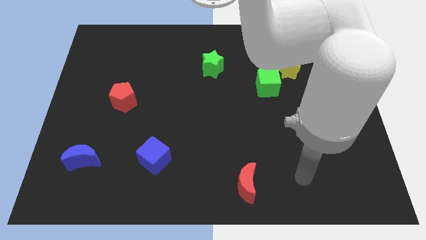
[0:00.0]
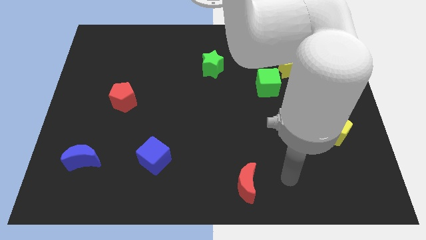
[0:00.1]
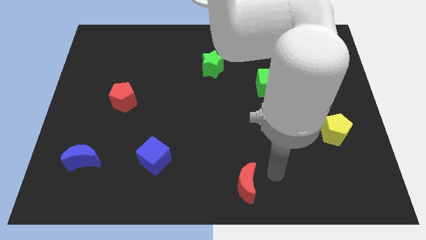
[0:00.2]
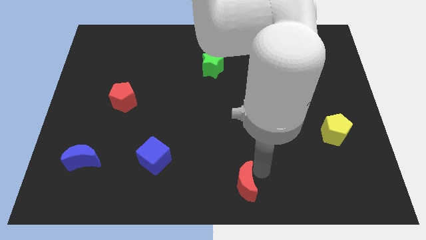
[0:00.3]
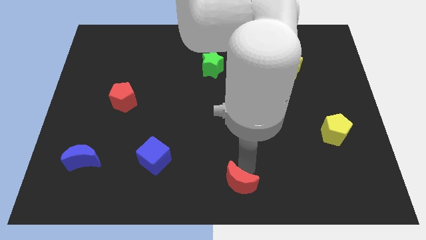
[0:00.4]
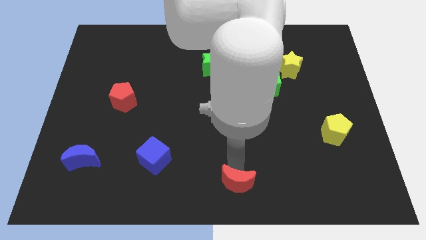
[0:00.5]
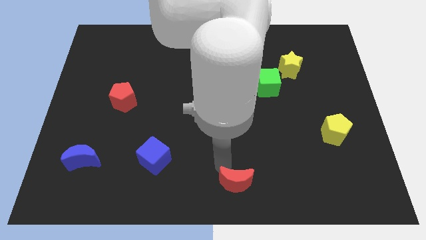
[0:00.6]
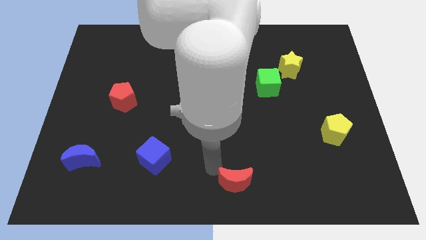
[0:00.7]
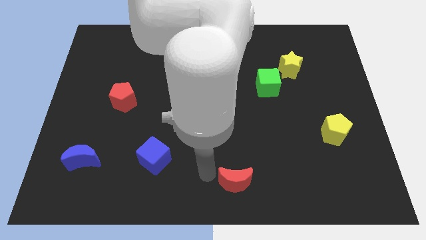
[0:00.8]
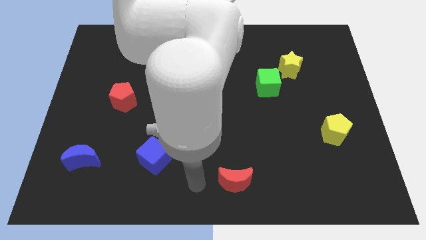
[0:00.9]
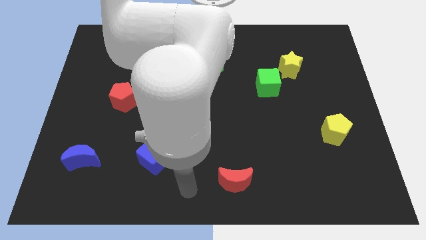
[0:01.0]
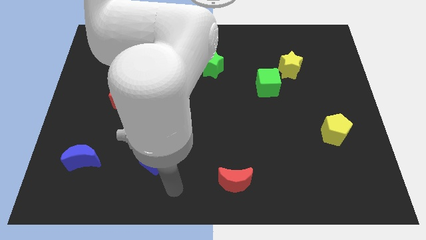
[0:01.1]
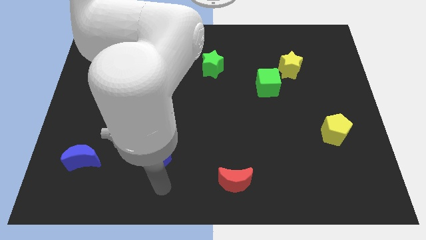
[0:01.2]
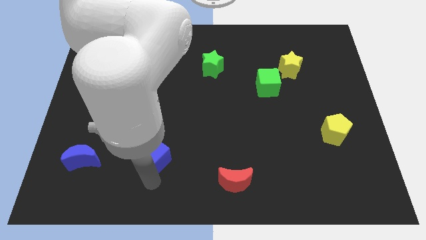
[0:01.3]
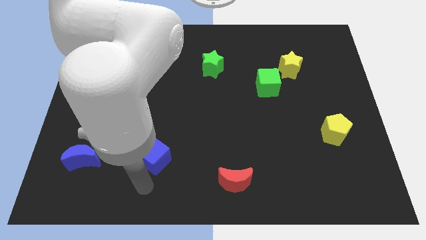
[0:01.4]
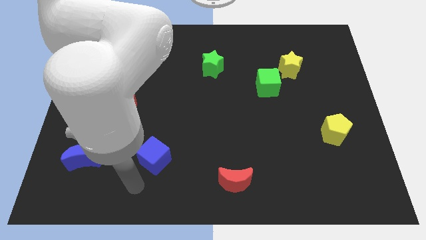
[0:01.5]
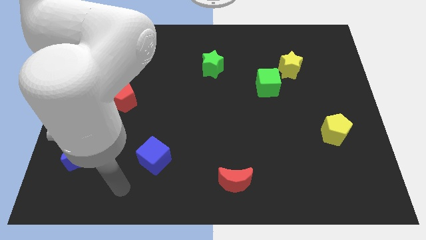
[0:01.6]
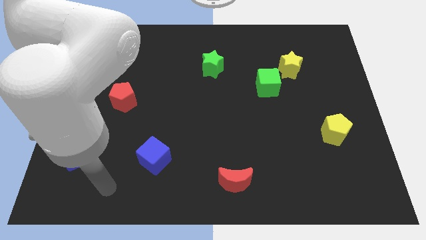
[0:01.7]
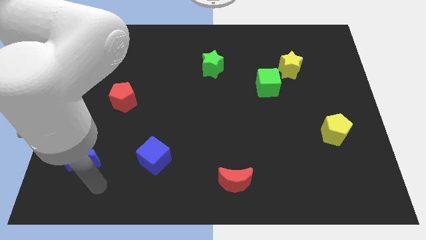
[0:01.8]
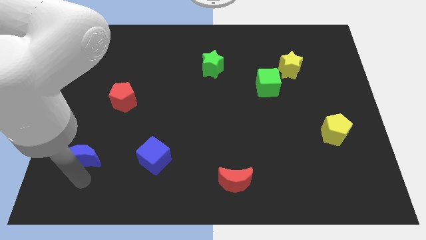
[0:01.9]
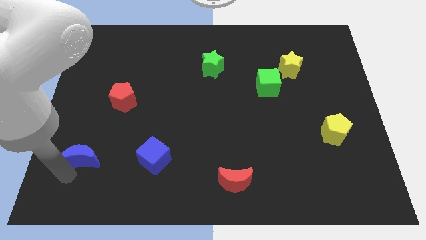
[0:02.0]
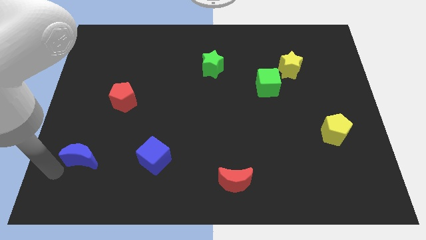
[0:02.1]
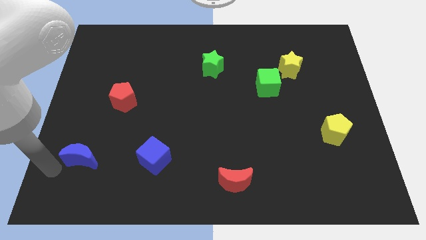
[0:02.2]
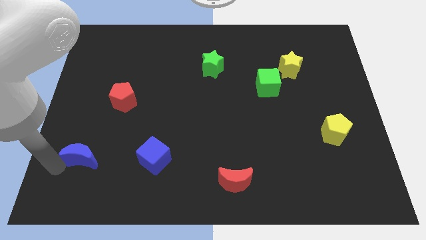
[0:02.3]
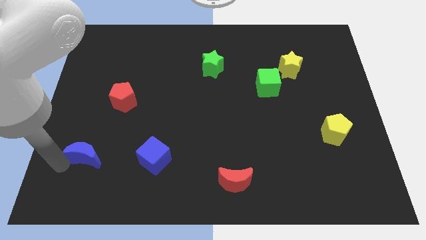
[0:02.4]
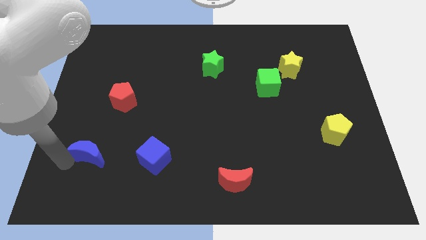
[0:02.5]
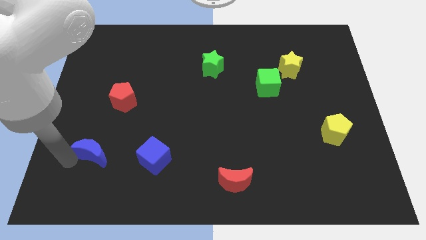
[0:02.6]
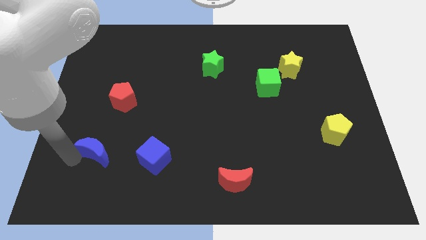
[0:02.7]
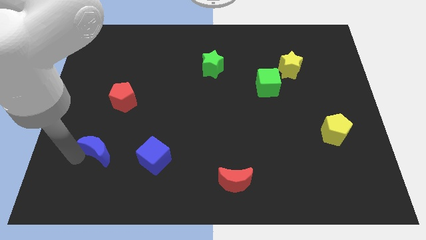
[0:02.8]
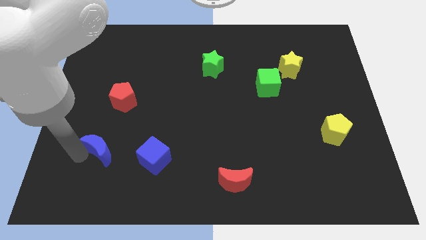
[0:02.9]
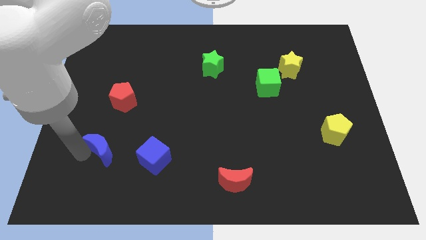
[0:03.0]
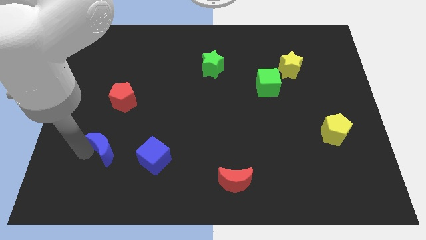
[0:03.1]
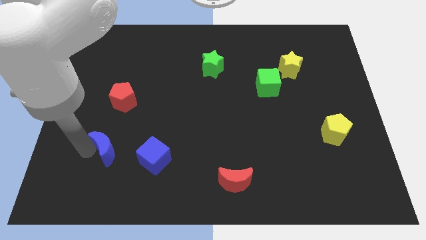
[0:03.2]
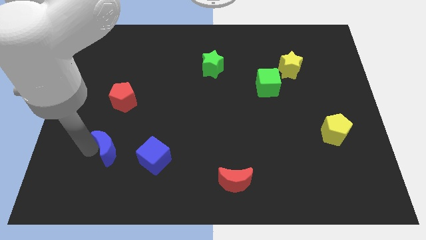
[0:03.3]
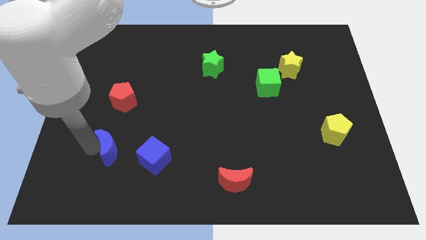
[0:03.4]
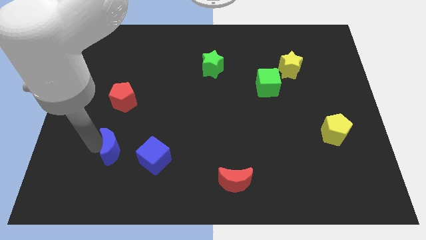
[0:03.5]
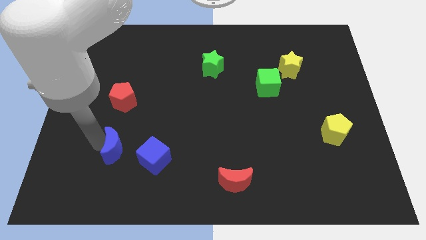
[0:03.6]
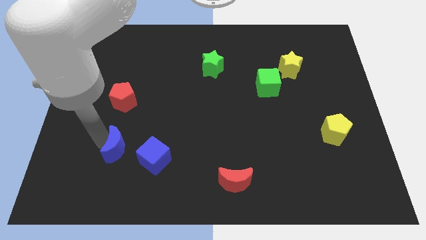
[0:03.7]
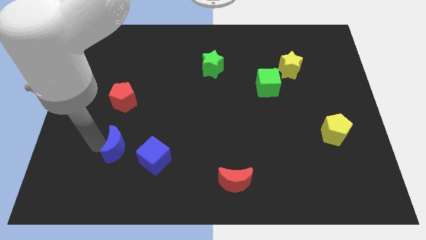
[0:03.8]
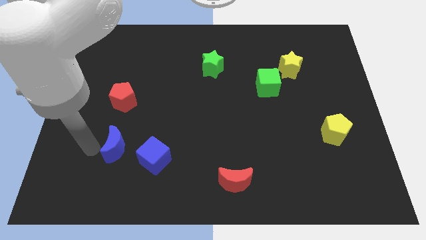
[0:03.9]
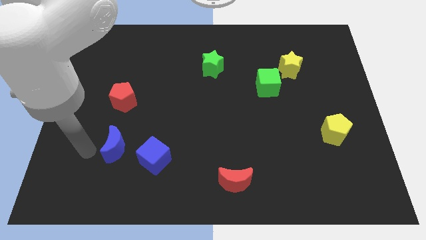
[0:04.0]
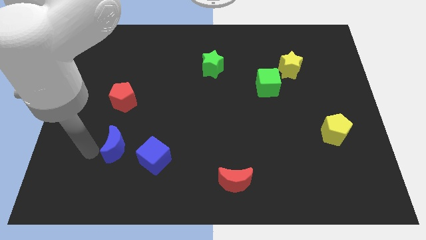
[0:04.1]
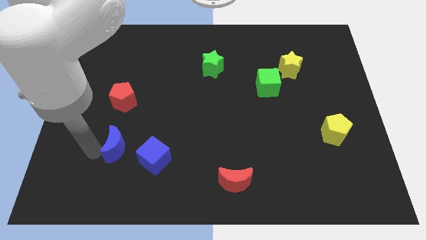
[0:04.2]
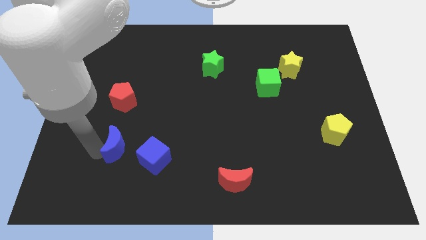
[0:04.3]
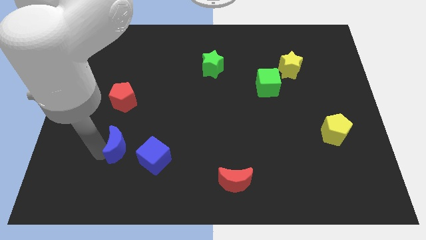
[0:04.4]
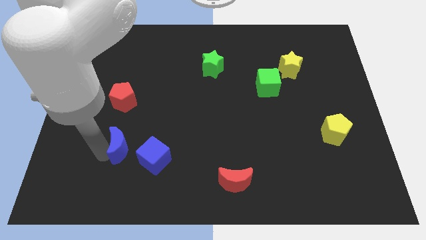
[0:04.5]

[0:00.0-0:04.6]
push the blue moon a little bit right

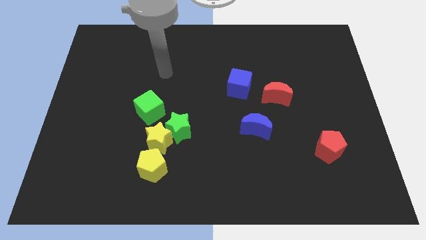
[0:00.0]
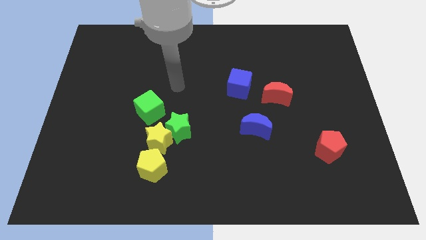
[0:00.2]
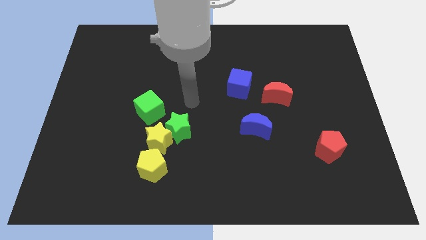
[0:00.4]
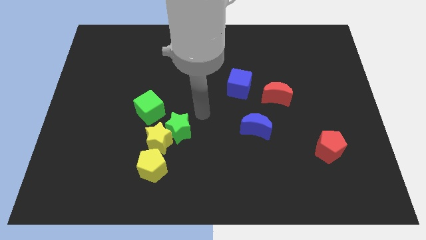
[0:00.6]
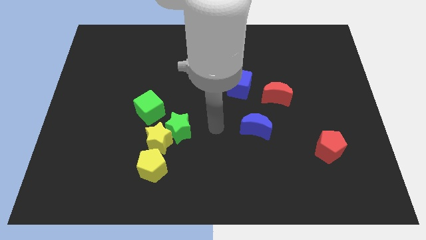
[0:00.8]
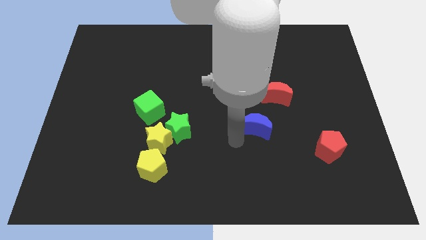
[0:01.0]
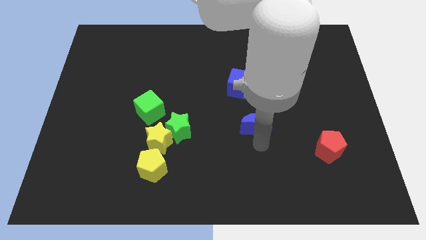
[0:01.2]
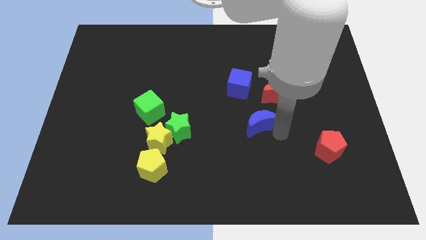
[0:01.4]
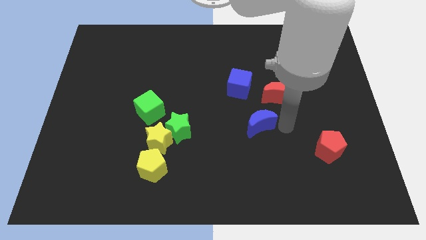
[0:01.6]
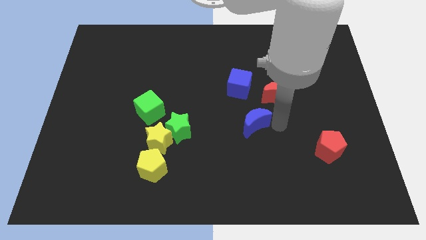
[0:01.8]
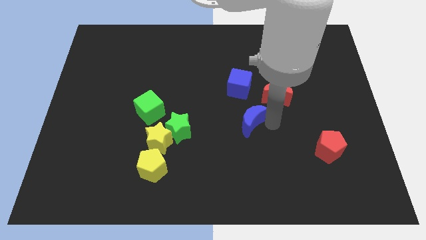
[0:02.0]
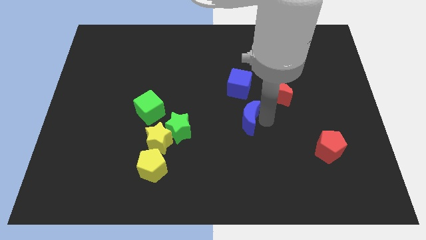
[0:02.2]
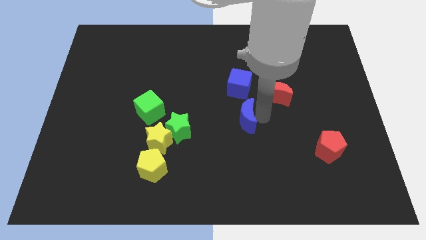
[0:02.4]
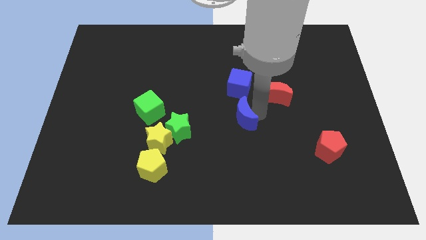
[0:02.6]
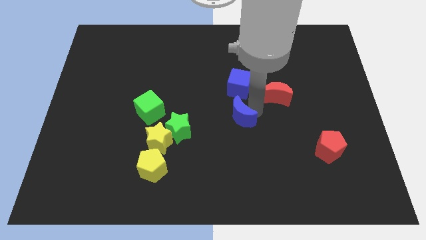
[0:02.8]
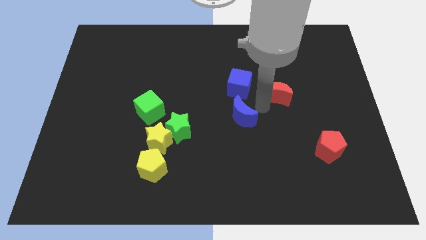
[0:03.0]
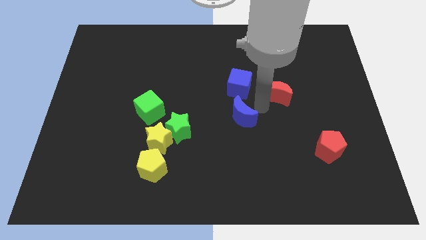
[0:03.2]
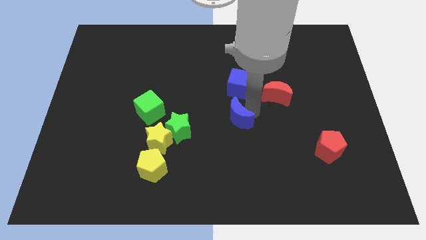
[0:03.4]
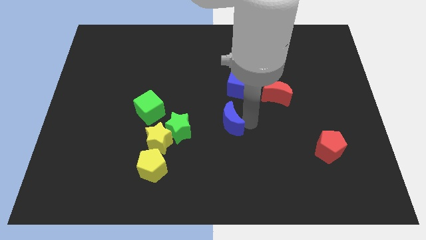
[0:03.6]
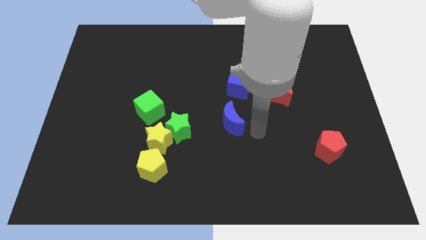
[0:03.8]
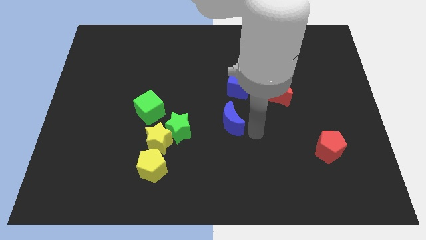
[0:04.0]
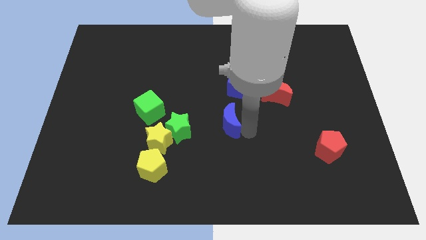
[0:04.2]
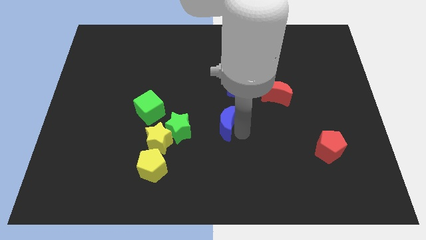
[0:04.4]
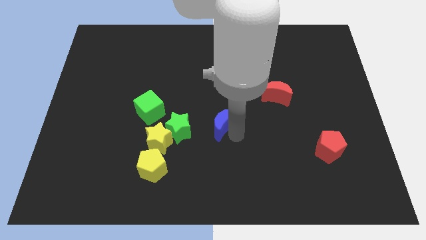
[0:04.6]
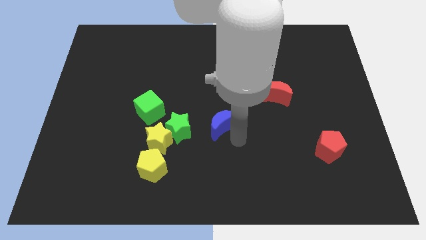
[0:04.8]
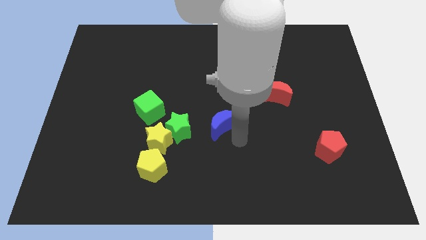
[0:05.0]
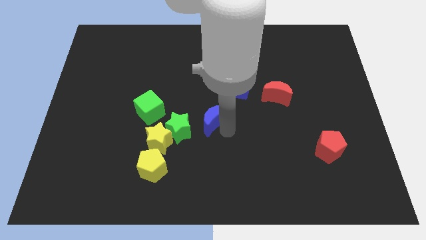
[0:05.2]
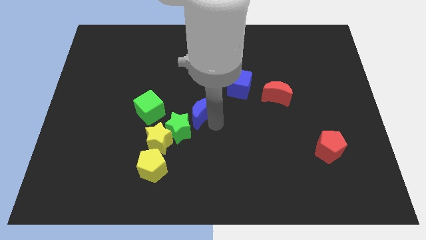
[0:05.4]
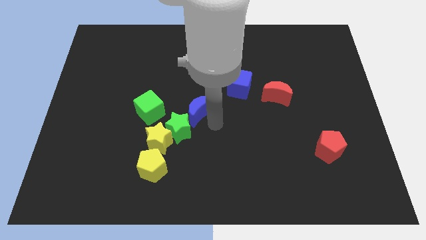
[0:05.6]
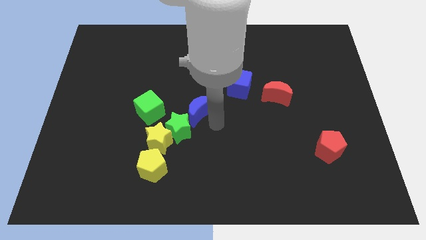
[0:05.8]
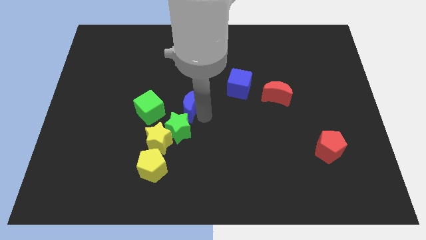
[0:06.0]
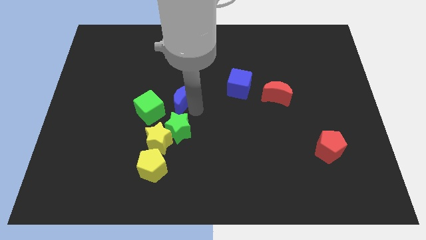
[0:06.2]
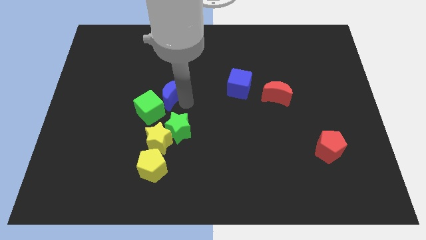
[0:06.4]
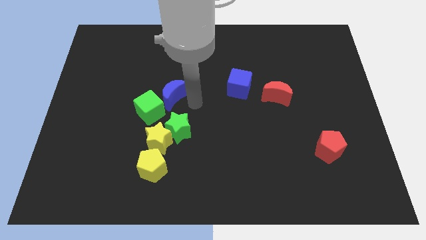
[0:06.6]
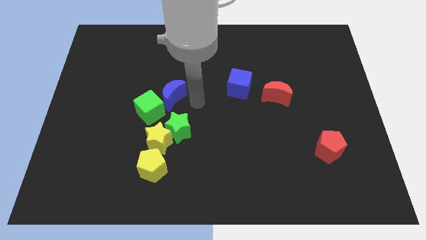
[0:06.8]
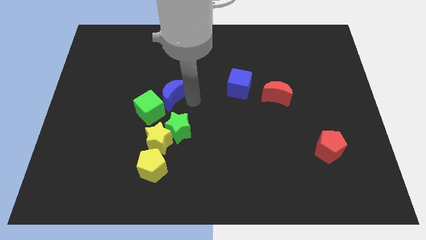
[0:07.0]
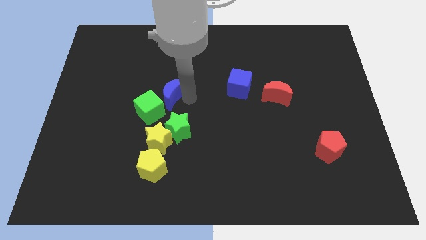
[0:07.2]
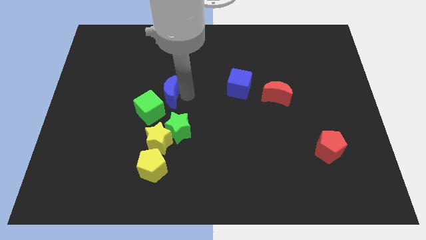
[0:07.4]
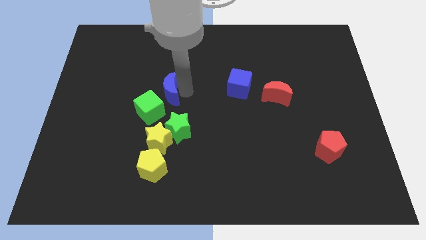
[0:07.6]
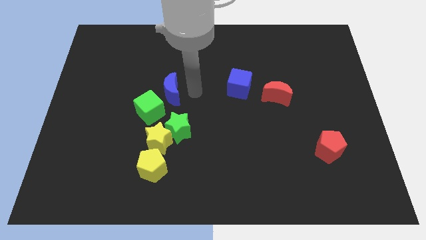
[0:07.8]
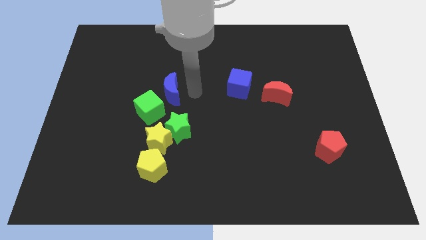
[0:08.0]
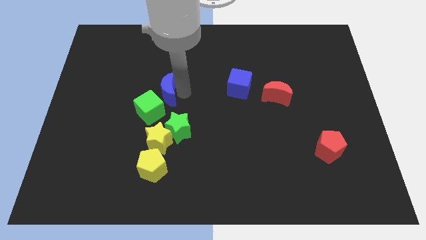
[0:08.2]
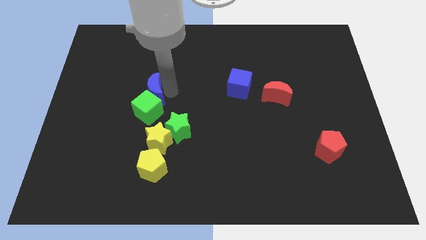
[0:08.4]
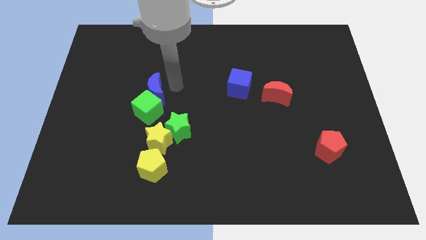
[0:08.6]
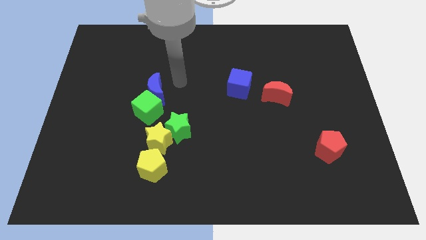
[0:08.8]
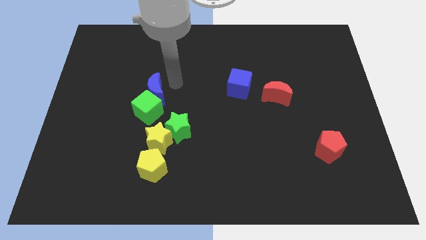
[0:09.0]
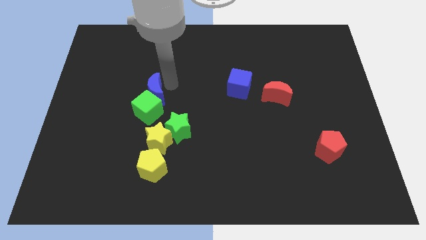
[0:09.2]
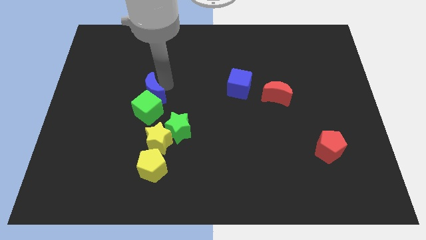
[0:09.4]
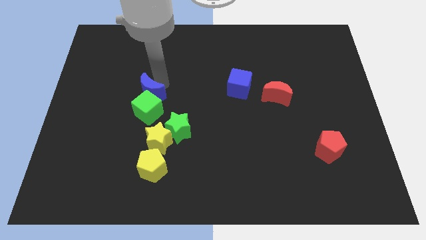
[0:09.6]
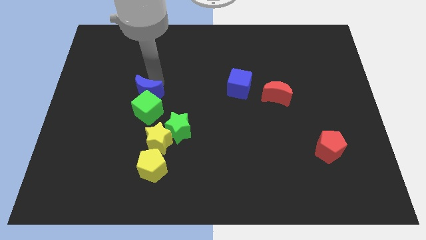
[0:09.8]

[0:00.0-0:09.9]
move the blue moon left
